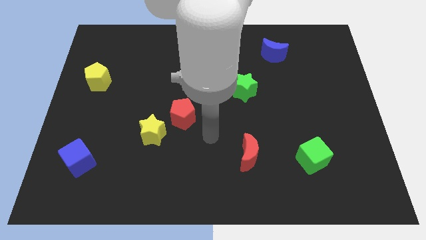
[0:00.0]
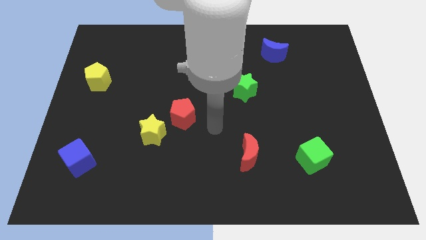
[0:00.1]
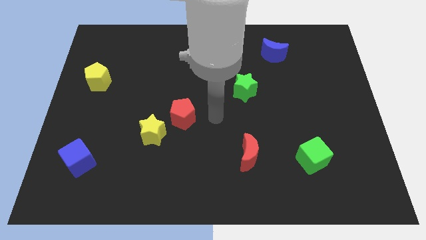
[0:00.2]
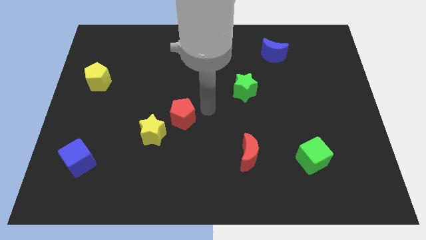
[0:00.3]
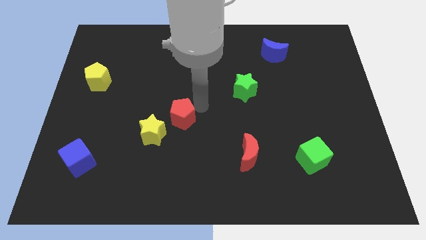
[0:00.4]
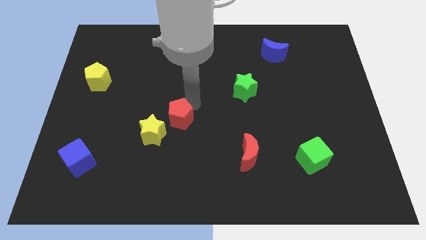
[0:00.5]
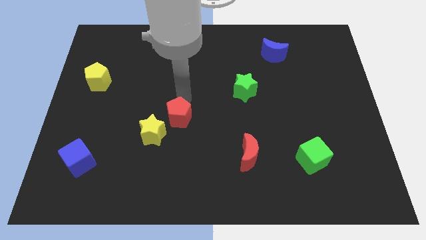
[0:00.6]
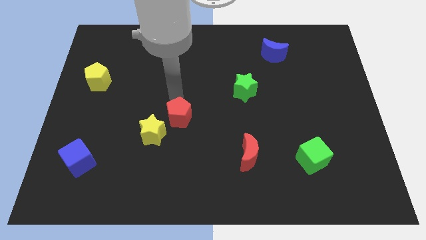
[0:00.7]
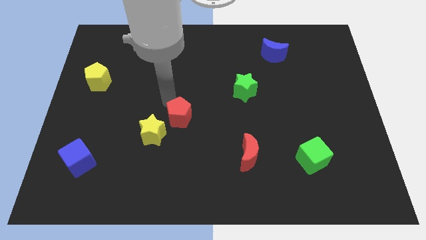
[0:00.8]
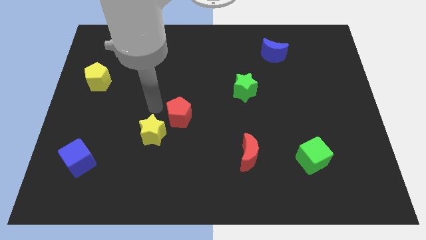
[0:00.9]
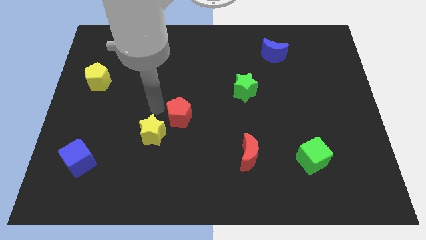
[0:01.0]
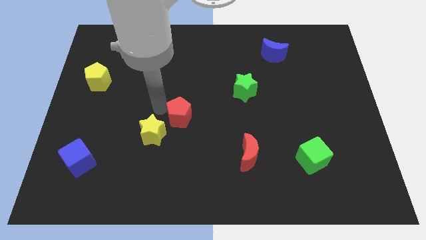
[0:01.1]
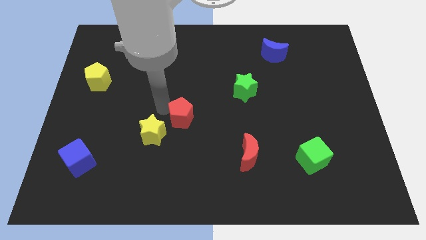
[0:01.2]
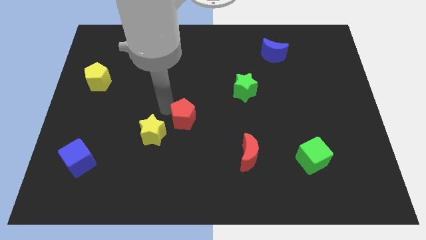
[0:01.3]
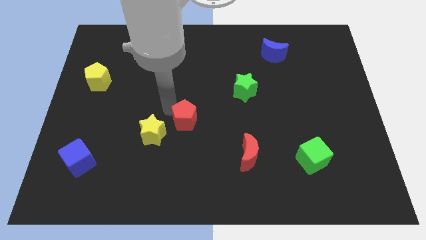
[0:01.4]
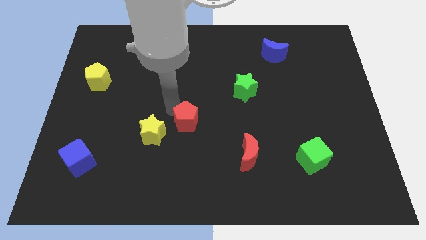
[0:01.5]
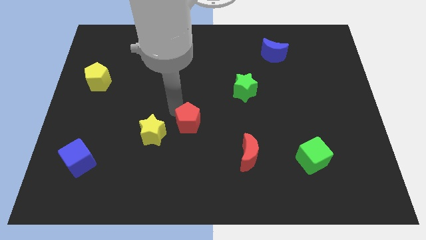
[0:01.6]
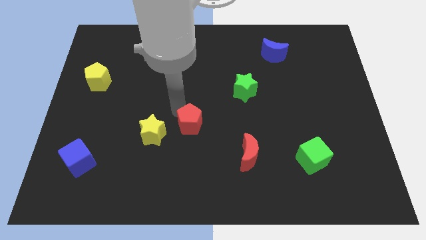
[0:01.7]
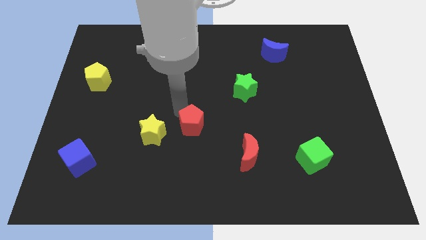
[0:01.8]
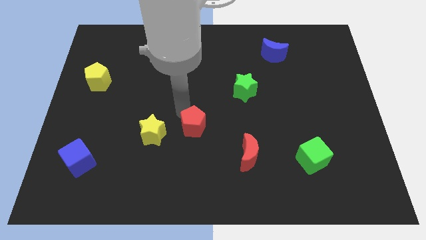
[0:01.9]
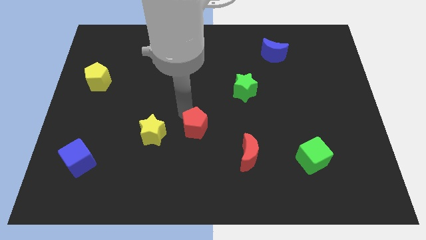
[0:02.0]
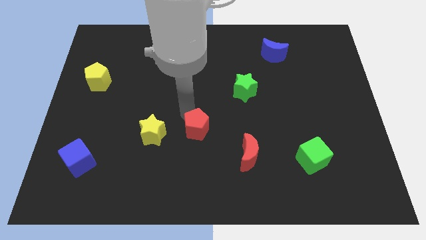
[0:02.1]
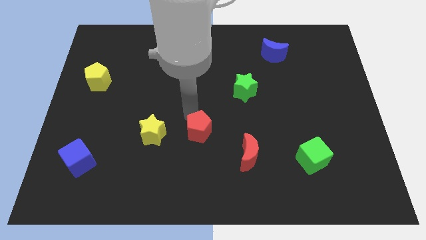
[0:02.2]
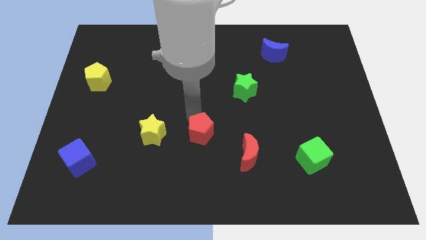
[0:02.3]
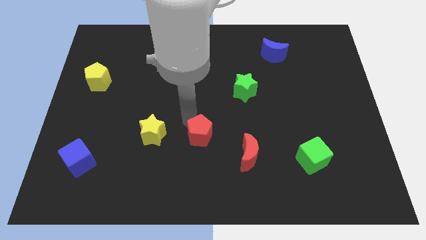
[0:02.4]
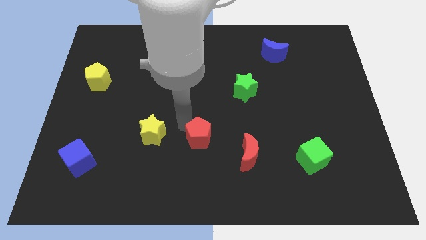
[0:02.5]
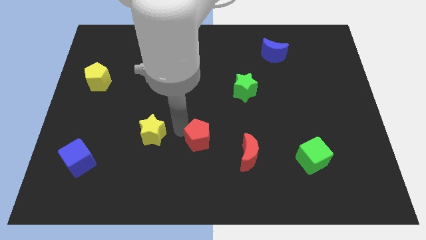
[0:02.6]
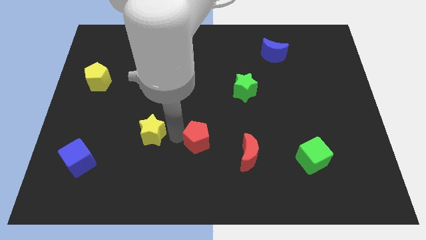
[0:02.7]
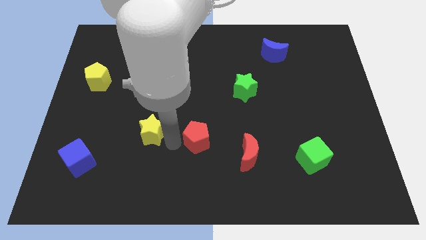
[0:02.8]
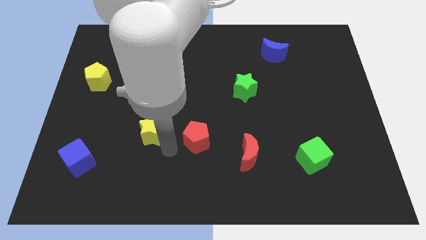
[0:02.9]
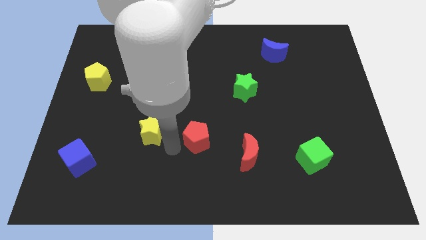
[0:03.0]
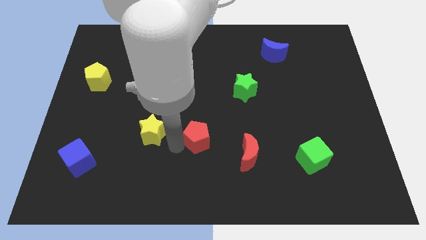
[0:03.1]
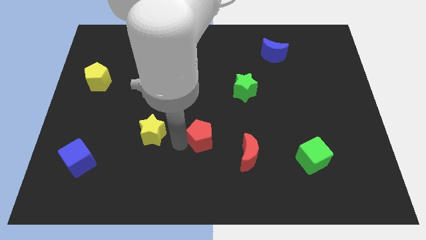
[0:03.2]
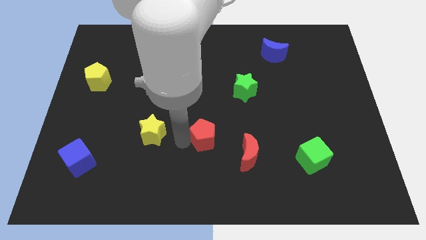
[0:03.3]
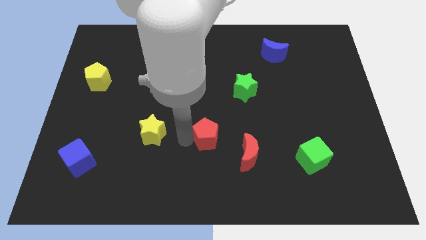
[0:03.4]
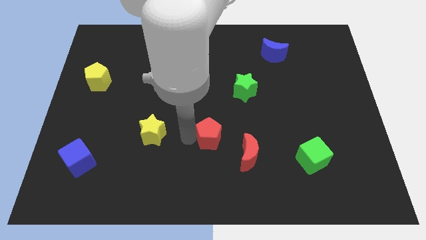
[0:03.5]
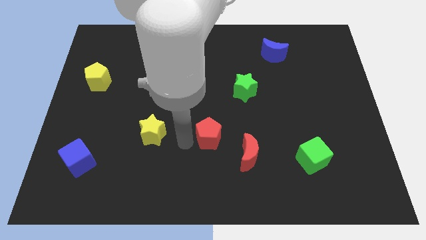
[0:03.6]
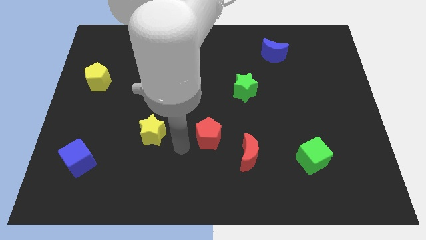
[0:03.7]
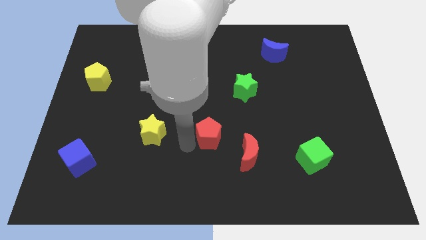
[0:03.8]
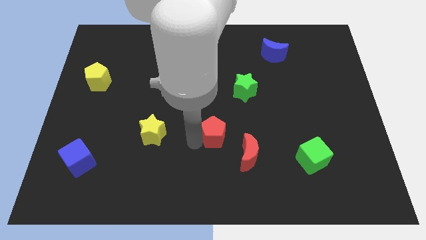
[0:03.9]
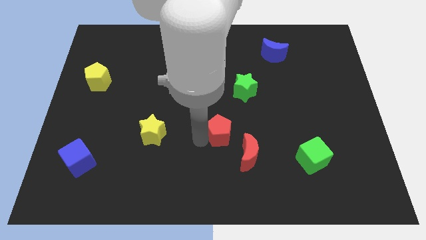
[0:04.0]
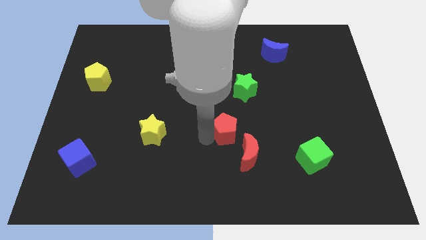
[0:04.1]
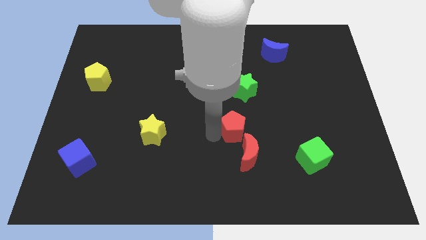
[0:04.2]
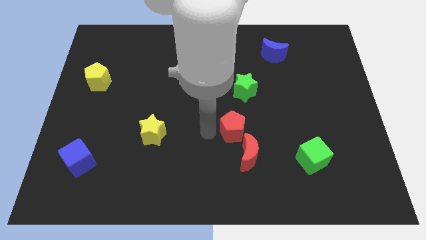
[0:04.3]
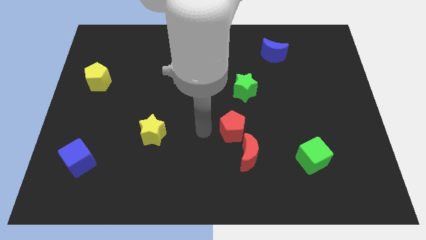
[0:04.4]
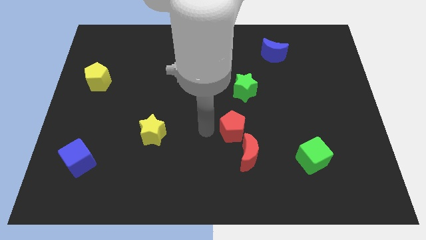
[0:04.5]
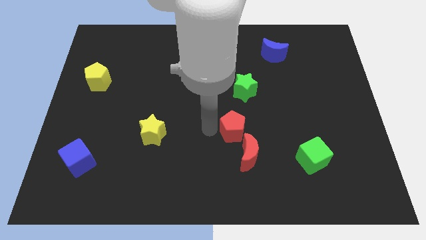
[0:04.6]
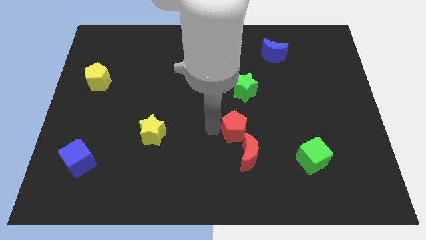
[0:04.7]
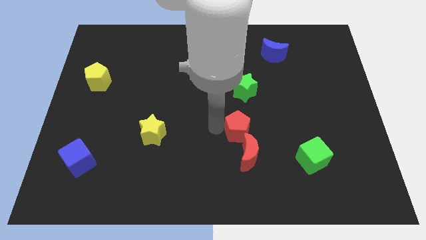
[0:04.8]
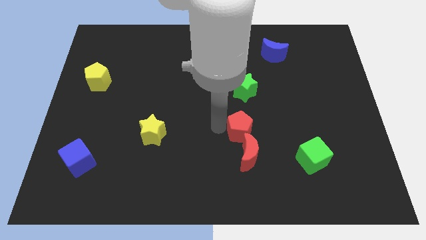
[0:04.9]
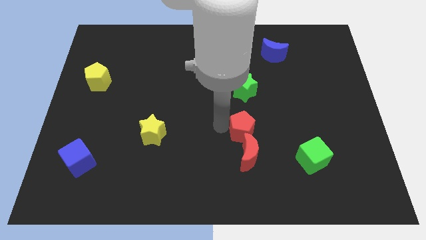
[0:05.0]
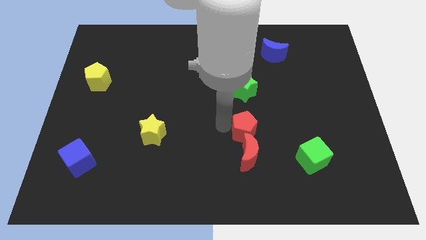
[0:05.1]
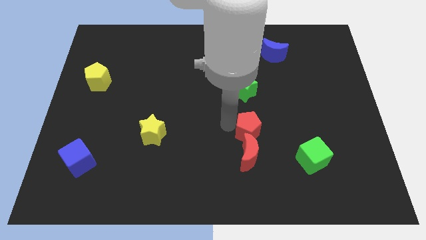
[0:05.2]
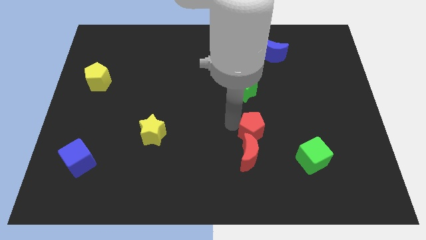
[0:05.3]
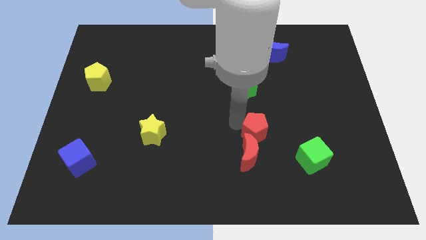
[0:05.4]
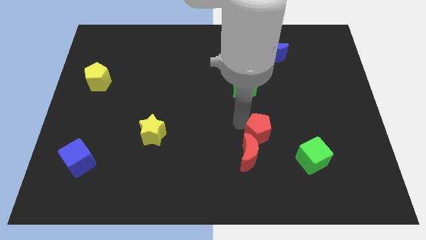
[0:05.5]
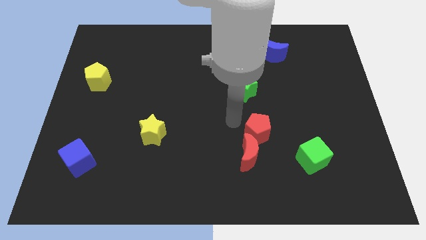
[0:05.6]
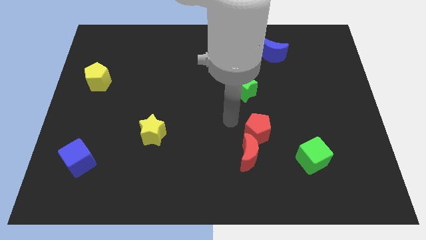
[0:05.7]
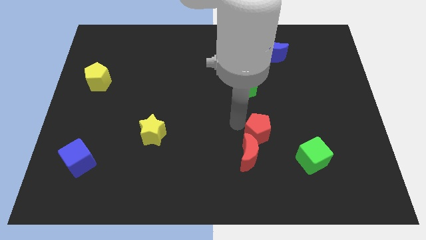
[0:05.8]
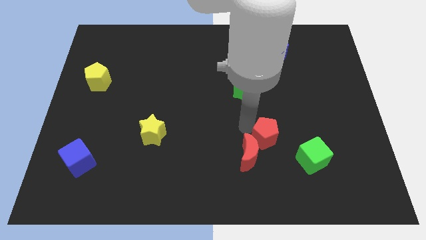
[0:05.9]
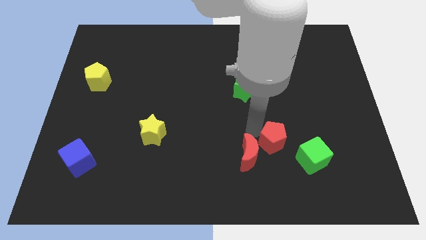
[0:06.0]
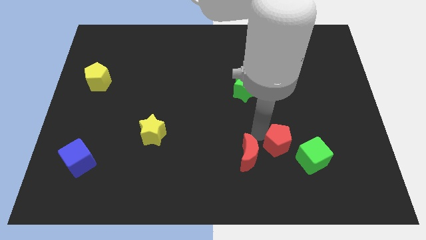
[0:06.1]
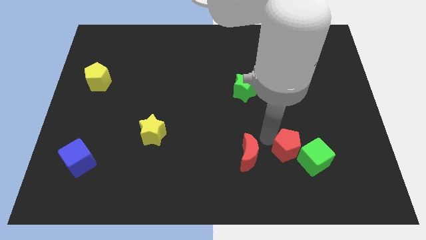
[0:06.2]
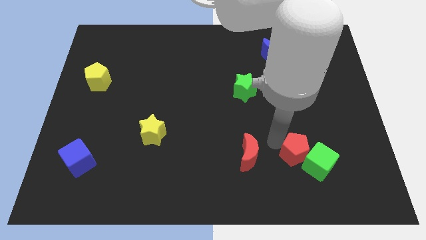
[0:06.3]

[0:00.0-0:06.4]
slide the red pentagon close to the green cube

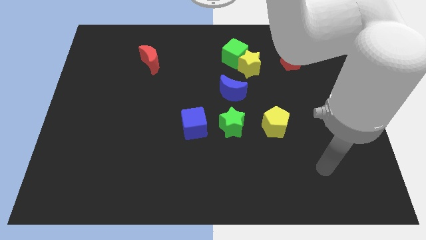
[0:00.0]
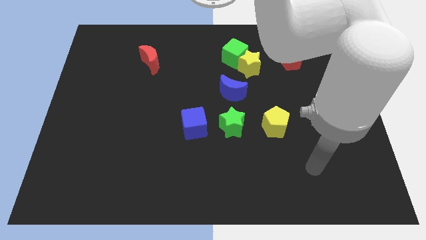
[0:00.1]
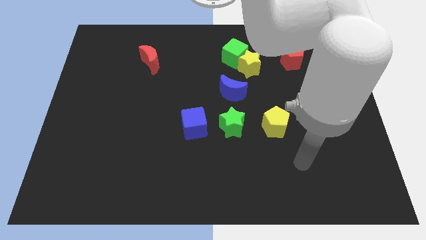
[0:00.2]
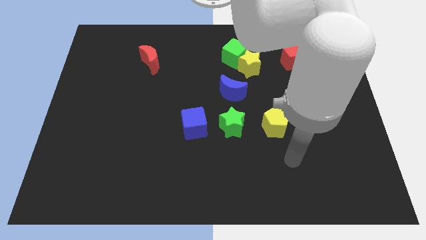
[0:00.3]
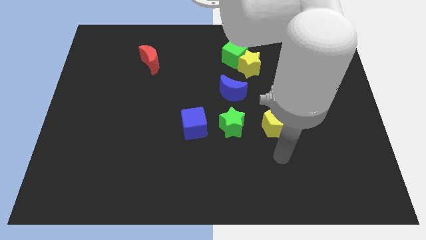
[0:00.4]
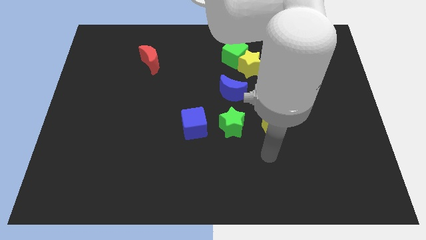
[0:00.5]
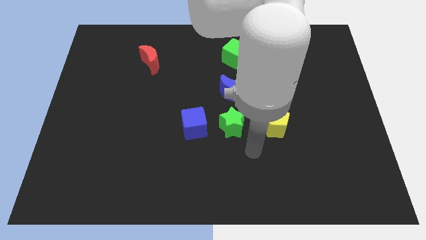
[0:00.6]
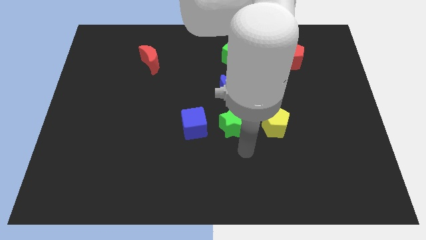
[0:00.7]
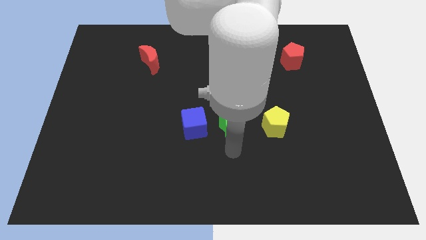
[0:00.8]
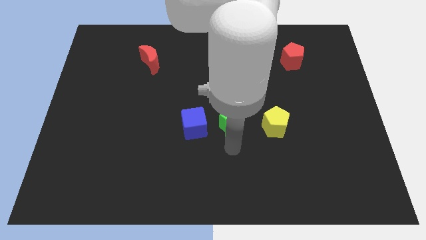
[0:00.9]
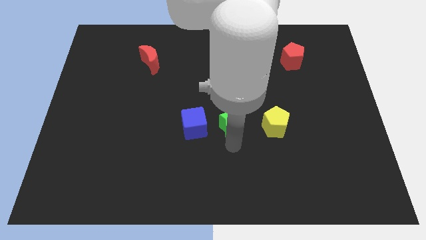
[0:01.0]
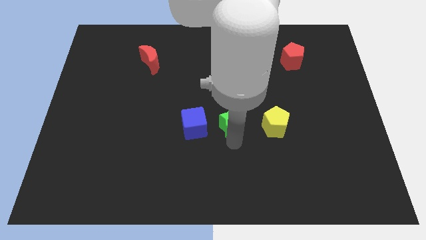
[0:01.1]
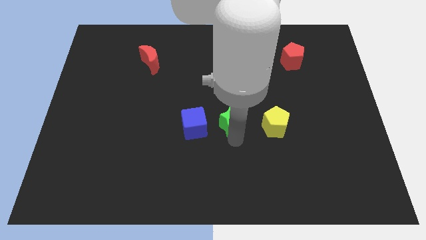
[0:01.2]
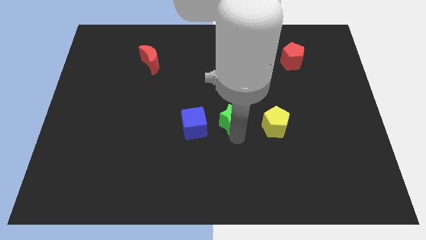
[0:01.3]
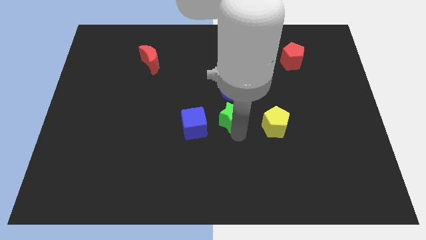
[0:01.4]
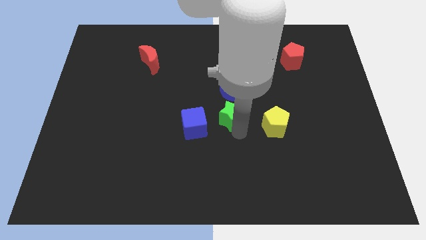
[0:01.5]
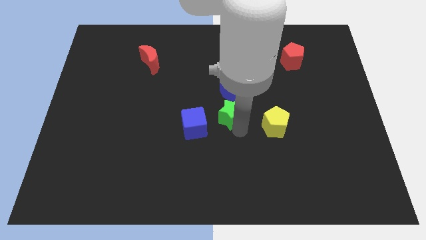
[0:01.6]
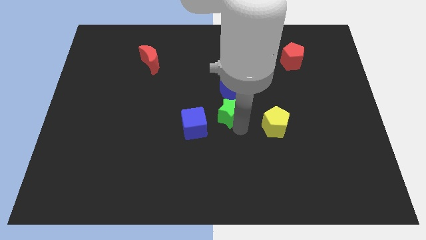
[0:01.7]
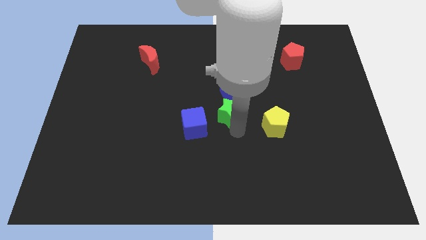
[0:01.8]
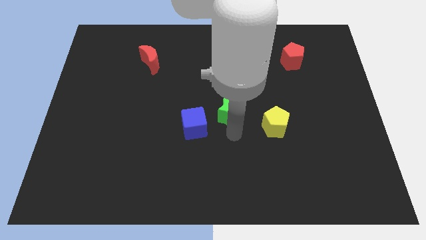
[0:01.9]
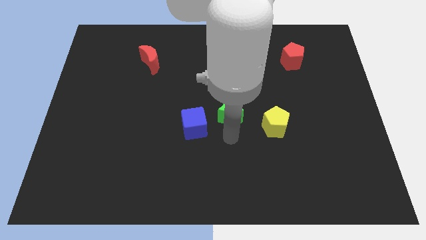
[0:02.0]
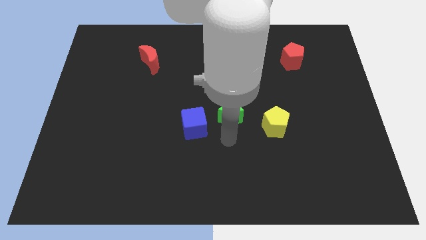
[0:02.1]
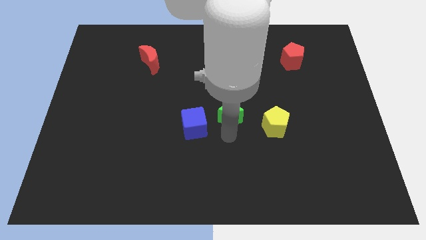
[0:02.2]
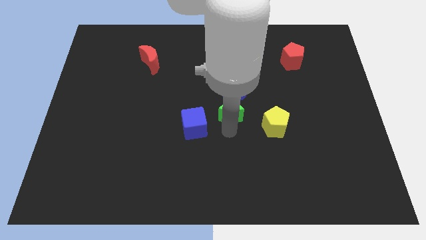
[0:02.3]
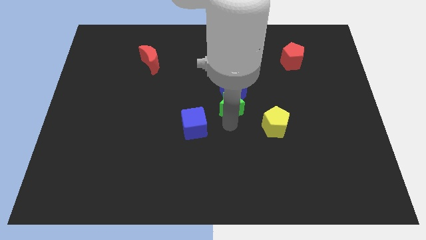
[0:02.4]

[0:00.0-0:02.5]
slide the green star to the blue moon
